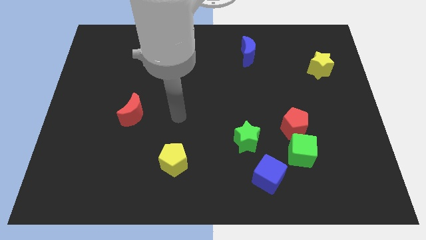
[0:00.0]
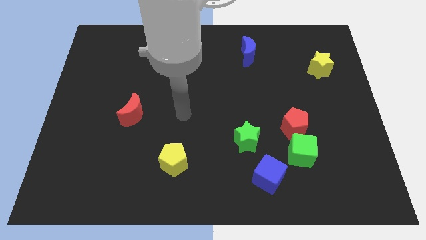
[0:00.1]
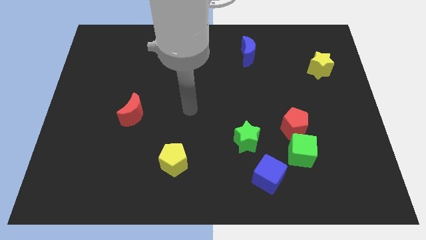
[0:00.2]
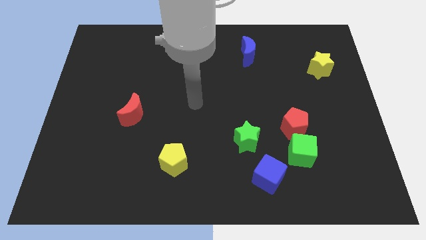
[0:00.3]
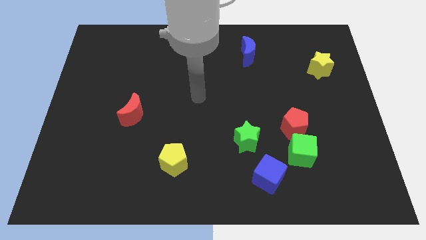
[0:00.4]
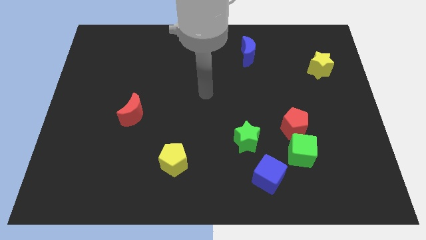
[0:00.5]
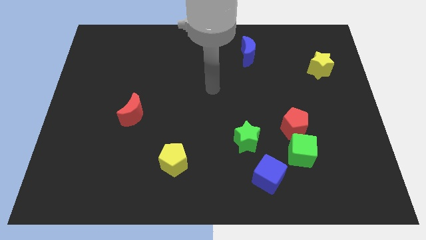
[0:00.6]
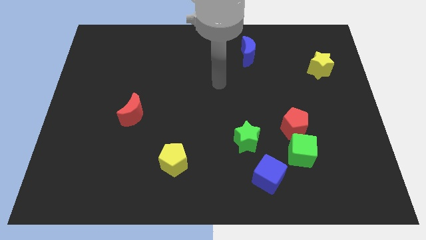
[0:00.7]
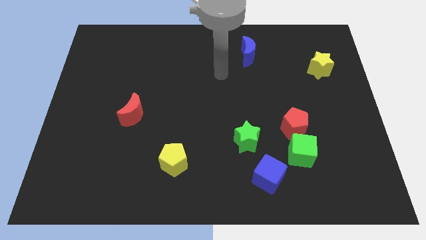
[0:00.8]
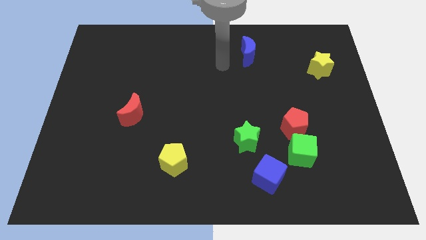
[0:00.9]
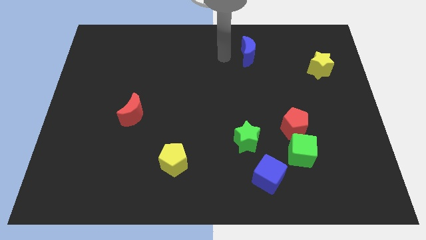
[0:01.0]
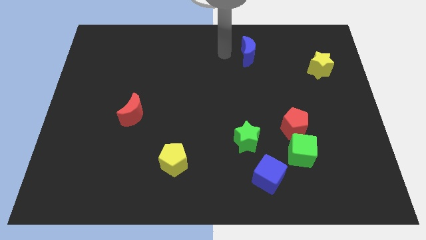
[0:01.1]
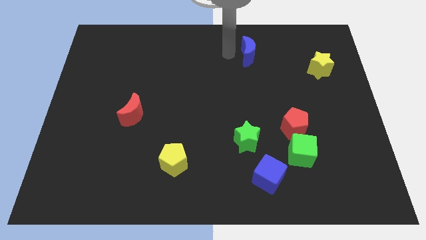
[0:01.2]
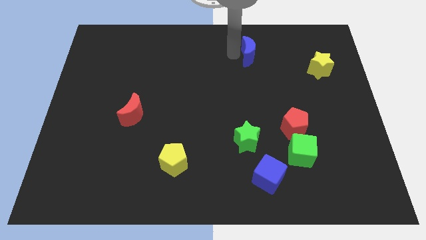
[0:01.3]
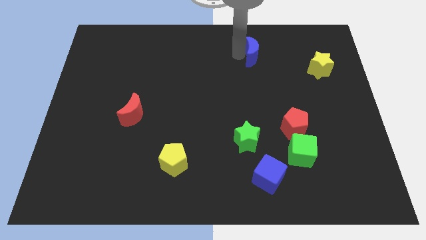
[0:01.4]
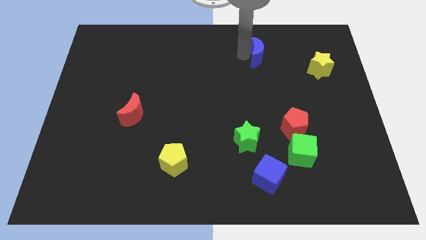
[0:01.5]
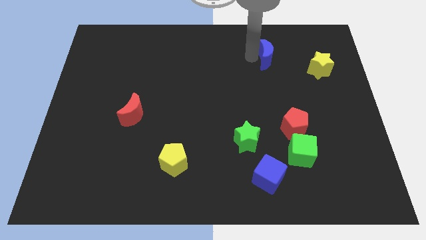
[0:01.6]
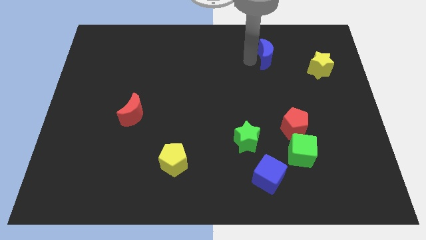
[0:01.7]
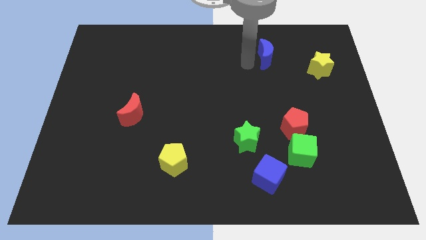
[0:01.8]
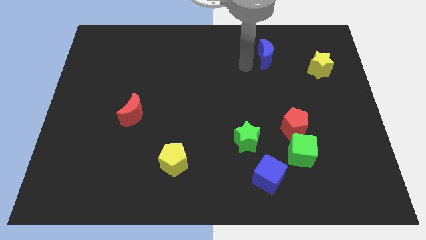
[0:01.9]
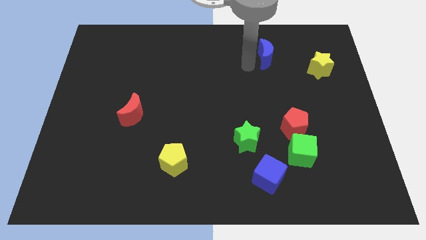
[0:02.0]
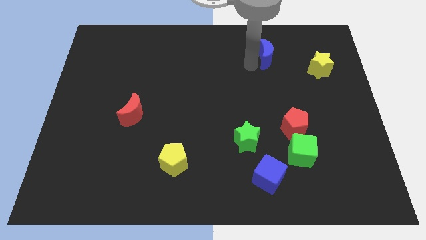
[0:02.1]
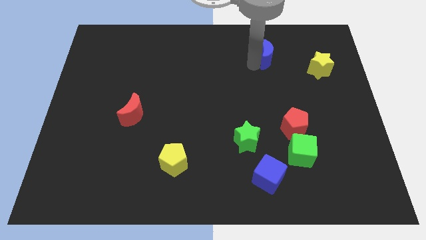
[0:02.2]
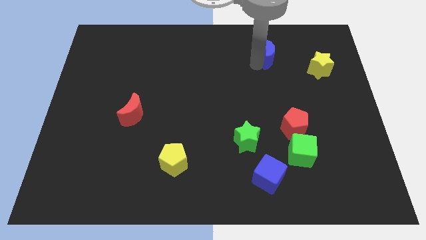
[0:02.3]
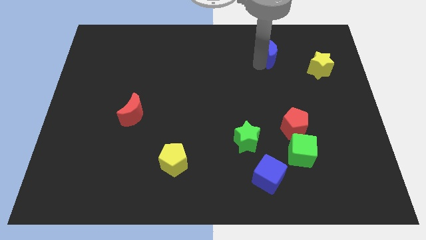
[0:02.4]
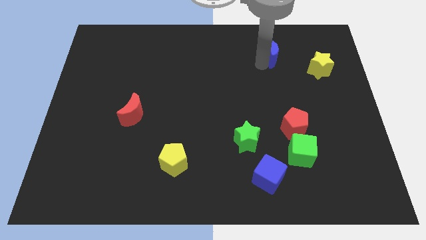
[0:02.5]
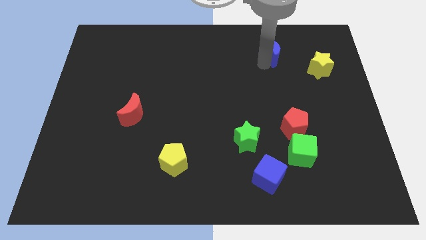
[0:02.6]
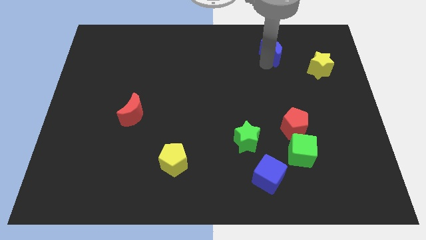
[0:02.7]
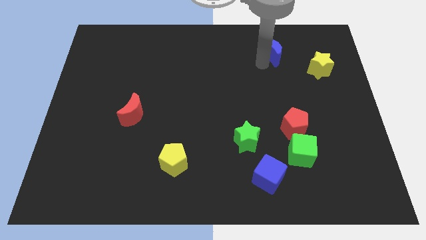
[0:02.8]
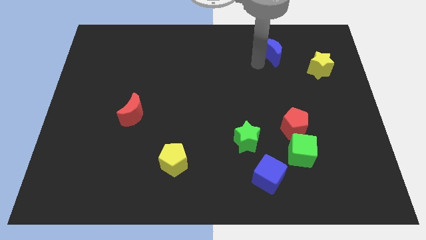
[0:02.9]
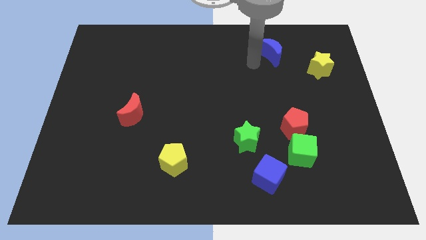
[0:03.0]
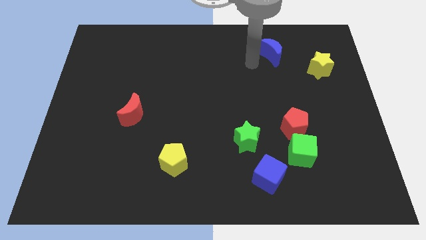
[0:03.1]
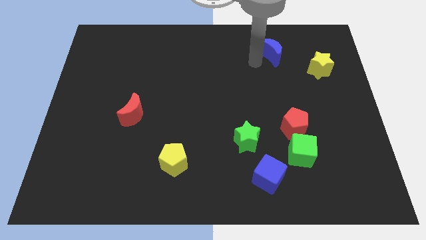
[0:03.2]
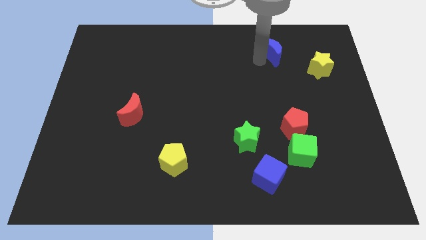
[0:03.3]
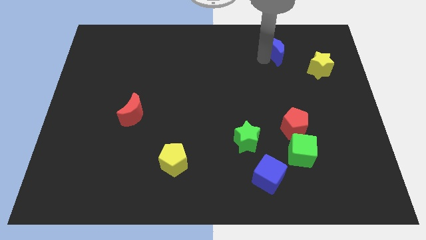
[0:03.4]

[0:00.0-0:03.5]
slightly move the blue moon right

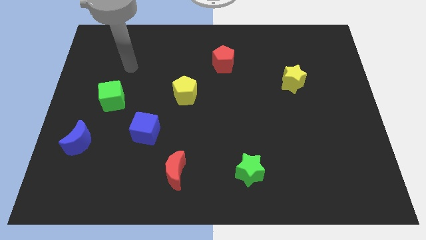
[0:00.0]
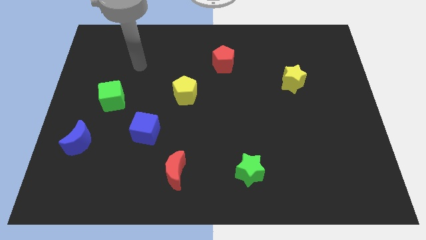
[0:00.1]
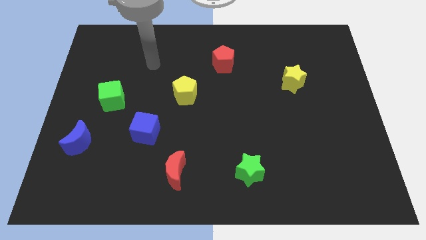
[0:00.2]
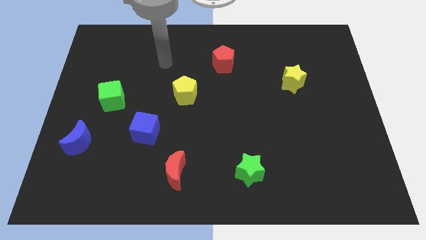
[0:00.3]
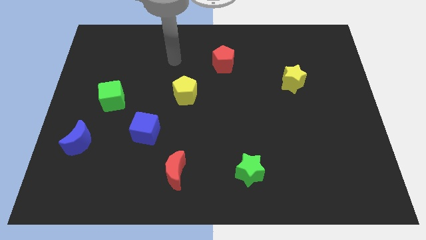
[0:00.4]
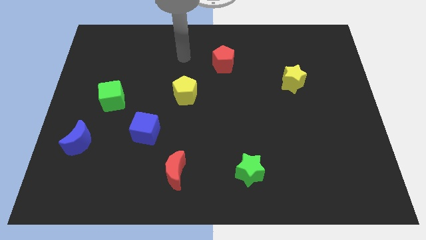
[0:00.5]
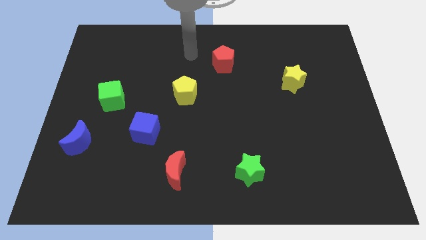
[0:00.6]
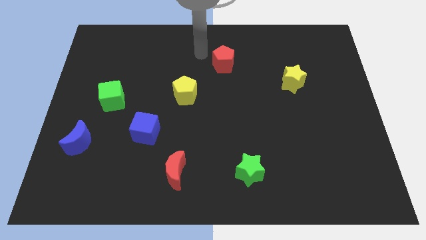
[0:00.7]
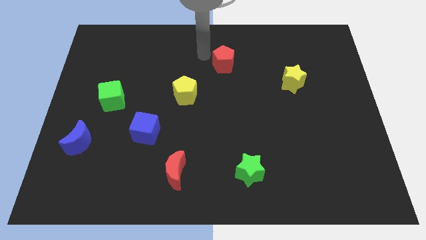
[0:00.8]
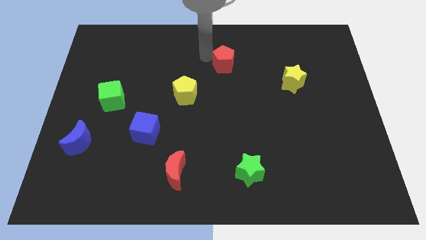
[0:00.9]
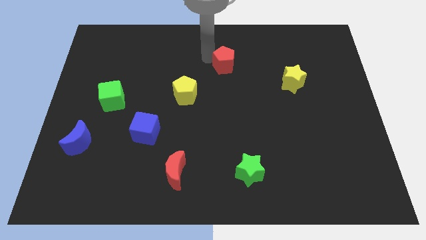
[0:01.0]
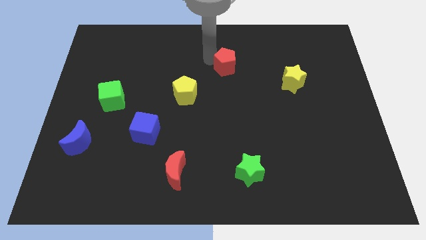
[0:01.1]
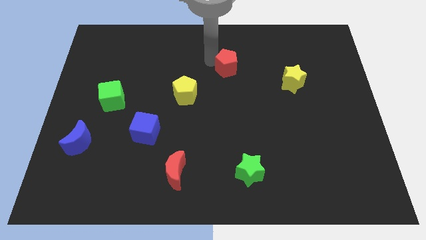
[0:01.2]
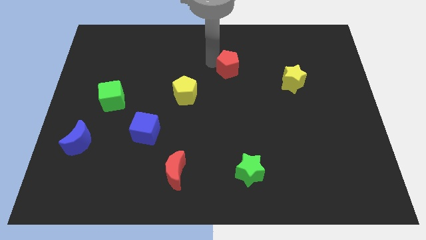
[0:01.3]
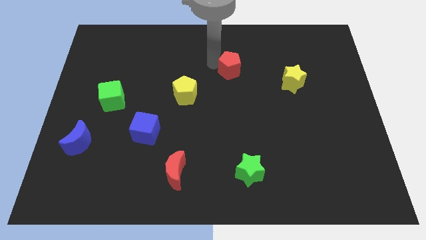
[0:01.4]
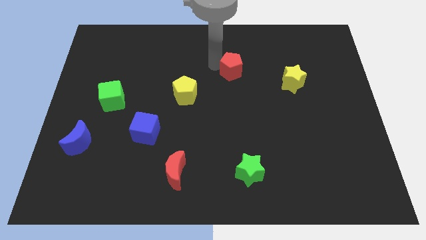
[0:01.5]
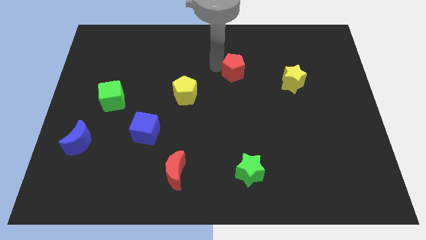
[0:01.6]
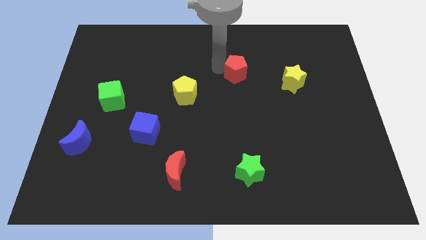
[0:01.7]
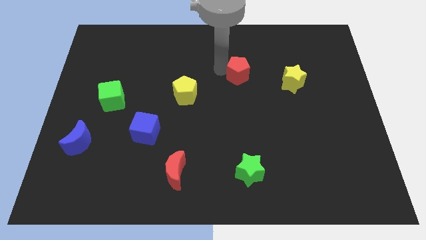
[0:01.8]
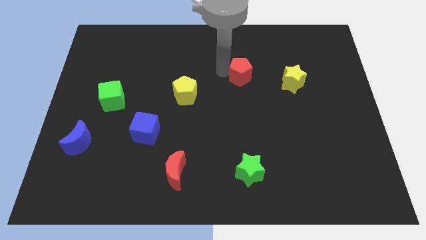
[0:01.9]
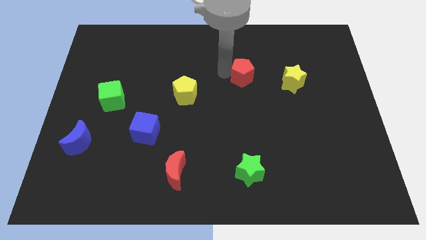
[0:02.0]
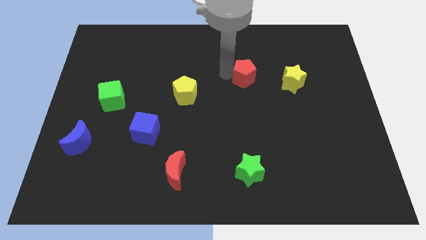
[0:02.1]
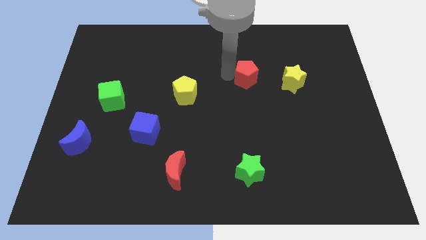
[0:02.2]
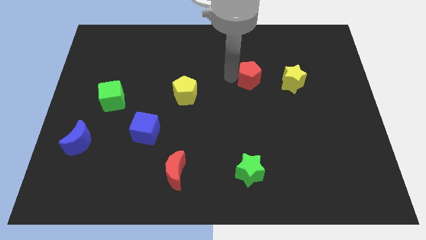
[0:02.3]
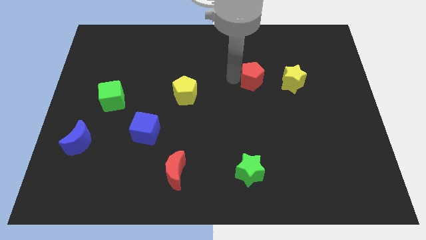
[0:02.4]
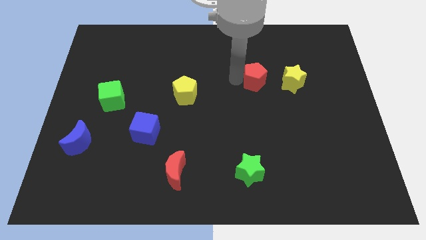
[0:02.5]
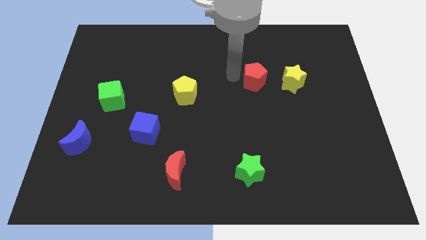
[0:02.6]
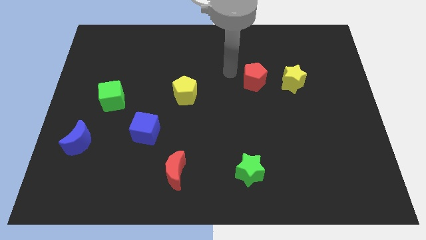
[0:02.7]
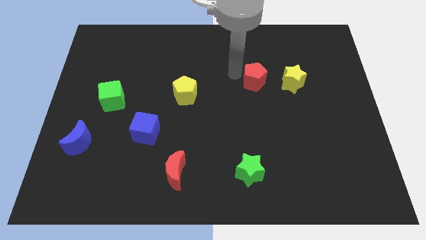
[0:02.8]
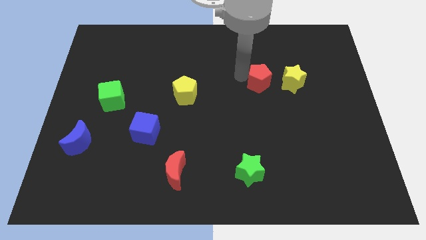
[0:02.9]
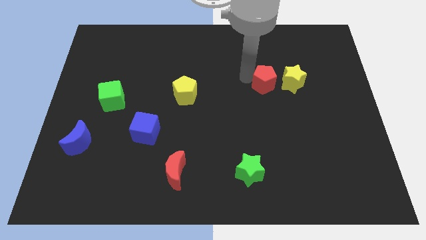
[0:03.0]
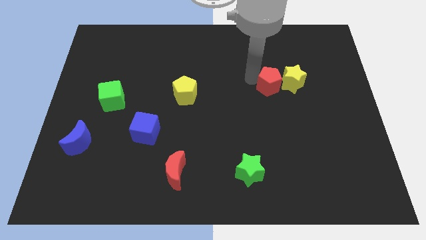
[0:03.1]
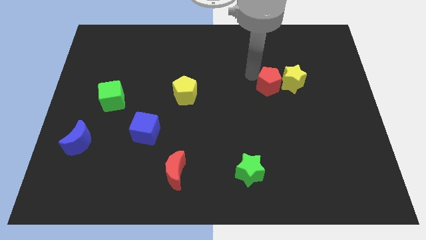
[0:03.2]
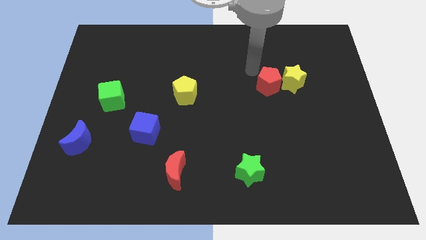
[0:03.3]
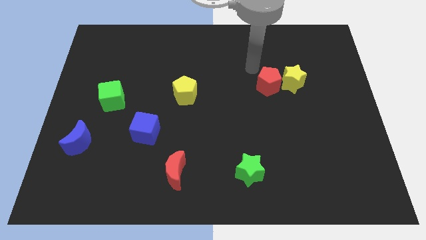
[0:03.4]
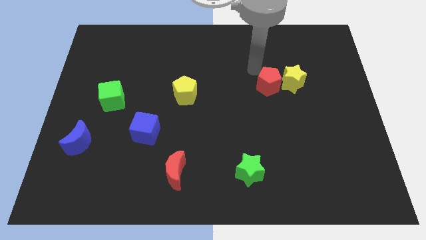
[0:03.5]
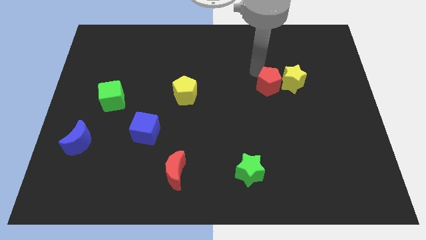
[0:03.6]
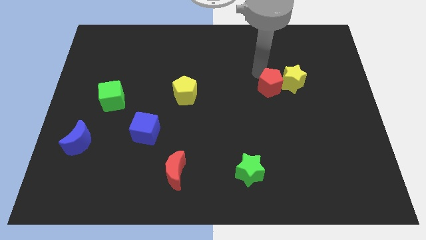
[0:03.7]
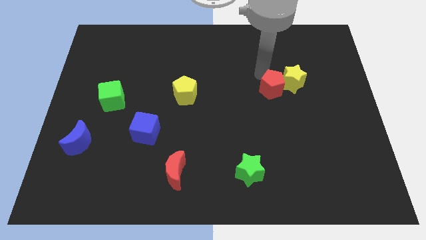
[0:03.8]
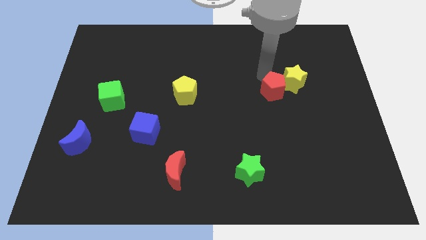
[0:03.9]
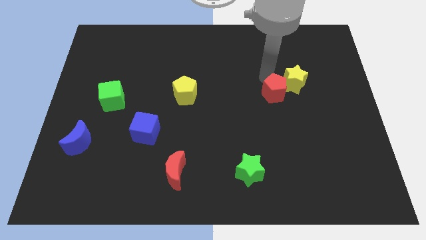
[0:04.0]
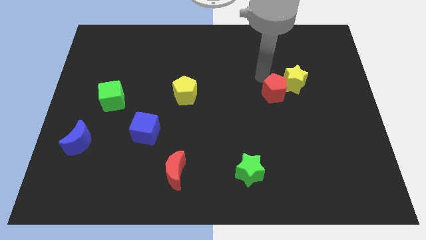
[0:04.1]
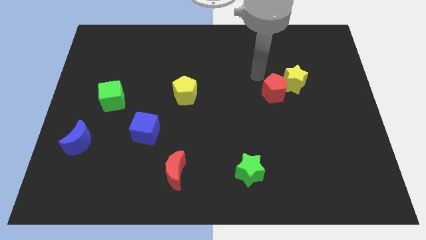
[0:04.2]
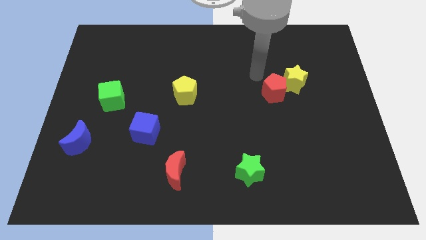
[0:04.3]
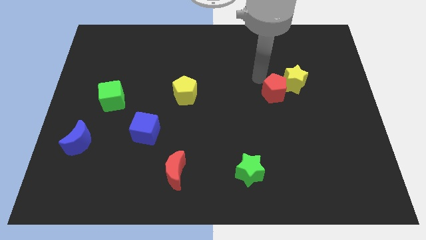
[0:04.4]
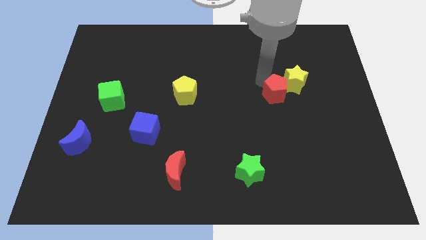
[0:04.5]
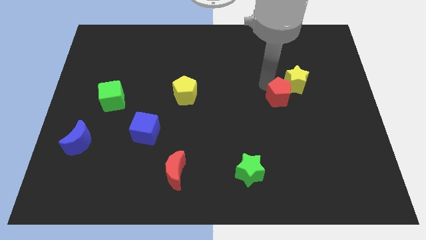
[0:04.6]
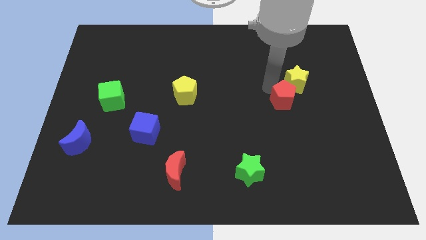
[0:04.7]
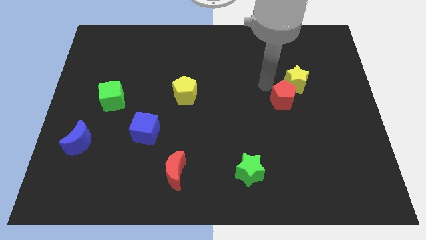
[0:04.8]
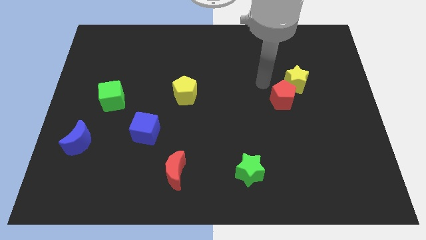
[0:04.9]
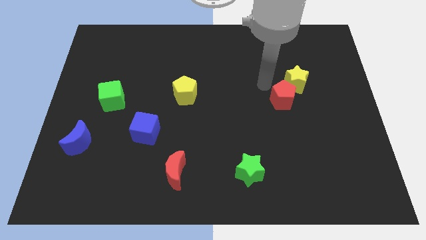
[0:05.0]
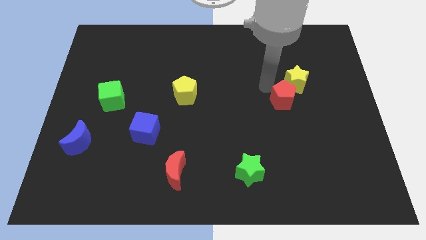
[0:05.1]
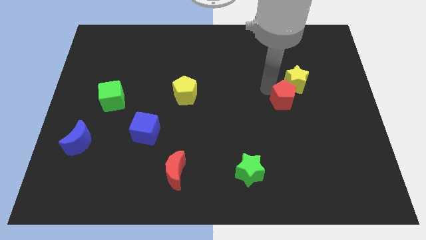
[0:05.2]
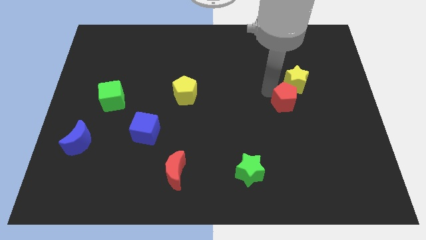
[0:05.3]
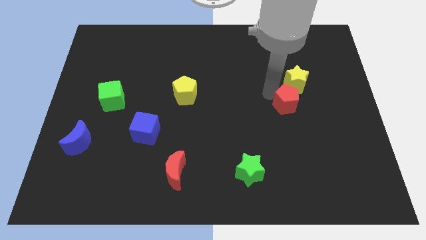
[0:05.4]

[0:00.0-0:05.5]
move the red pentagon down and to the right
